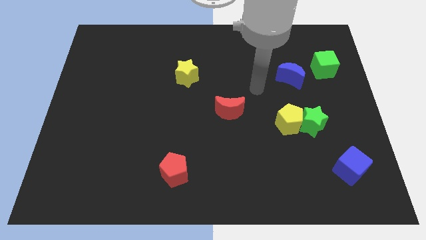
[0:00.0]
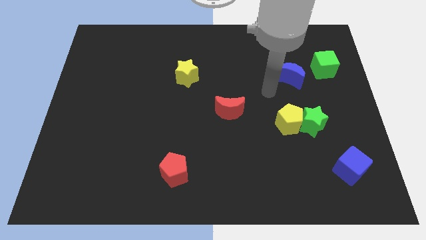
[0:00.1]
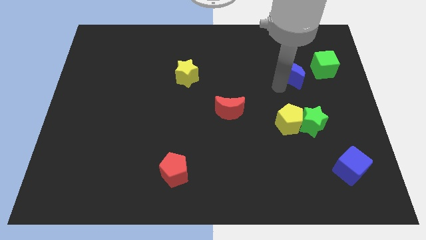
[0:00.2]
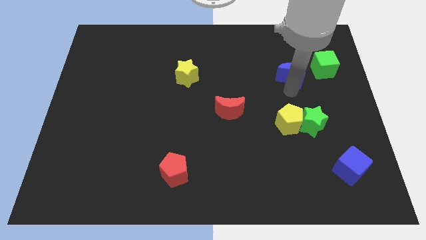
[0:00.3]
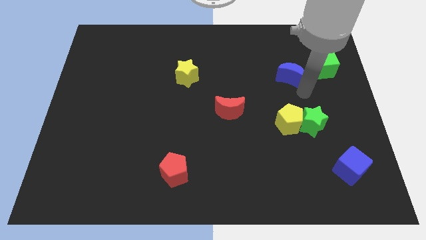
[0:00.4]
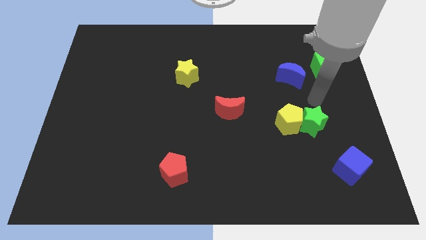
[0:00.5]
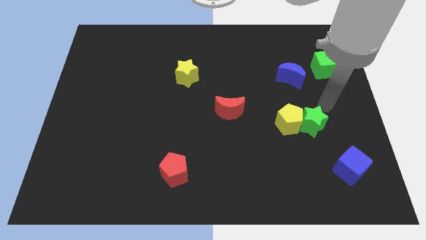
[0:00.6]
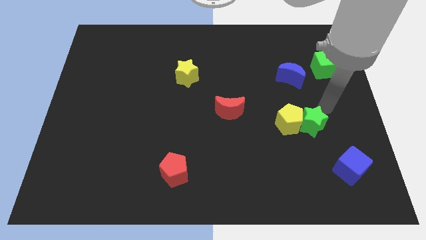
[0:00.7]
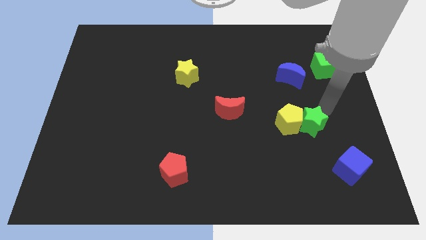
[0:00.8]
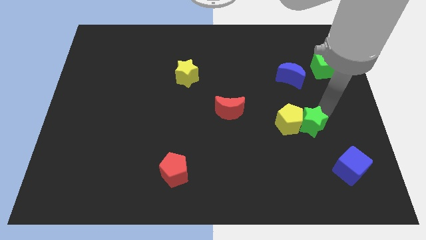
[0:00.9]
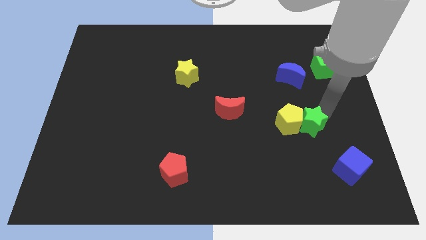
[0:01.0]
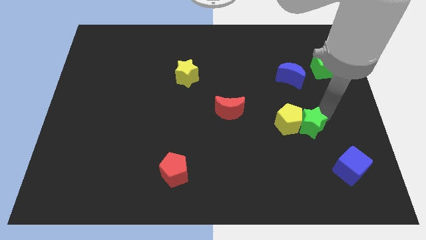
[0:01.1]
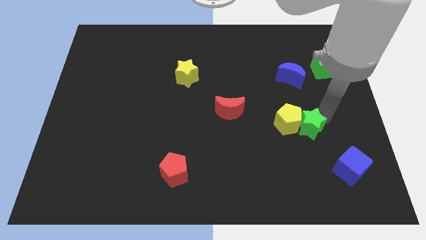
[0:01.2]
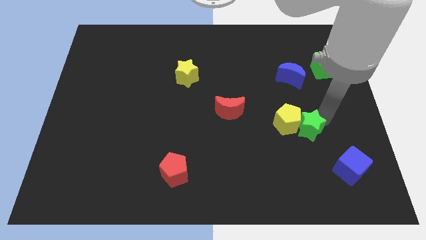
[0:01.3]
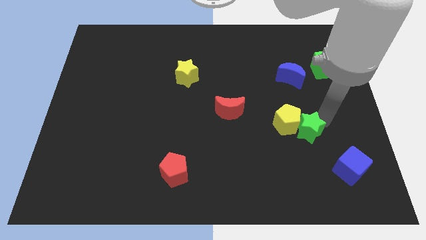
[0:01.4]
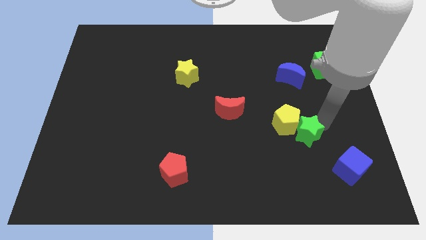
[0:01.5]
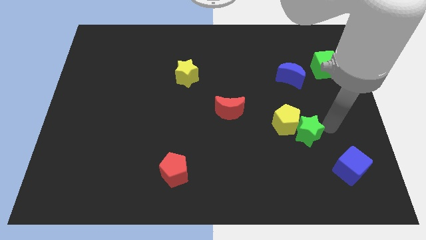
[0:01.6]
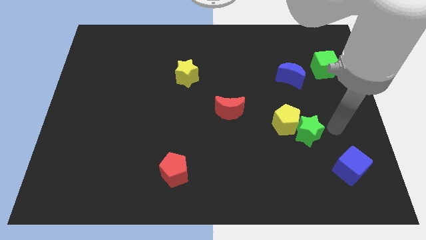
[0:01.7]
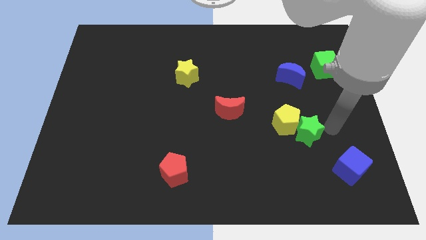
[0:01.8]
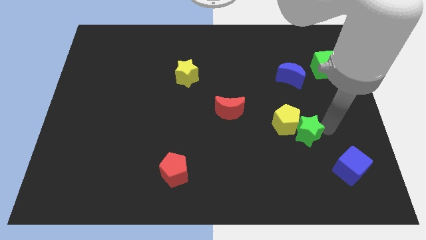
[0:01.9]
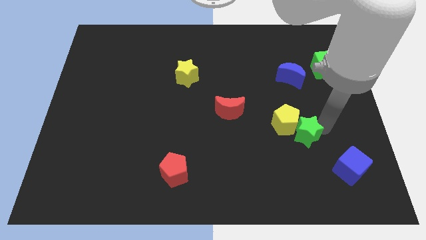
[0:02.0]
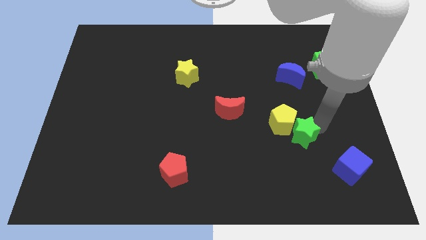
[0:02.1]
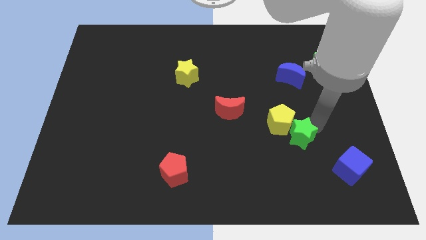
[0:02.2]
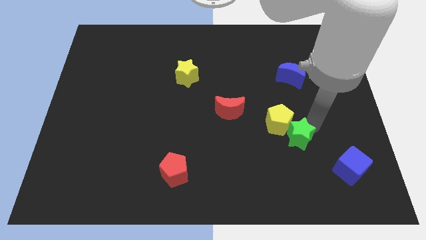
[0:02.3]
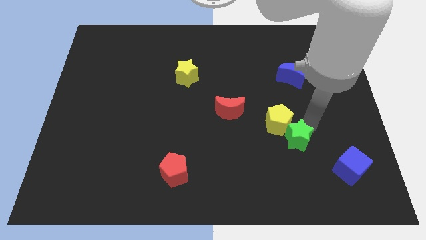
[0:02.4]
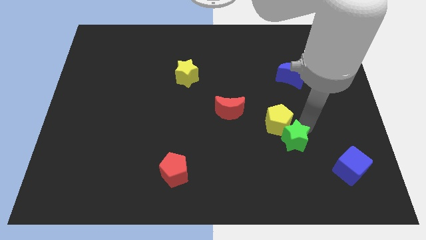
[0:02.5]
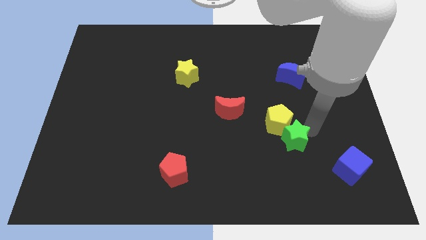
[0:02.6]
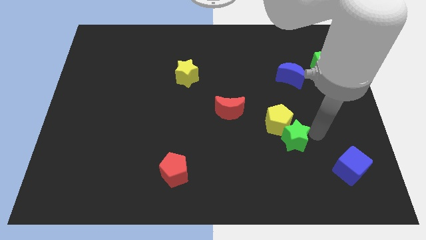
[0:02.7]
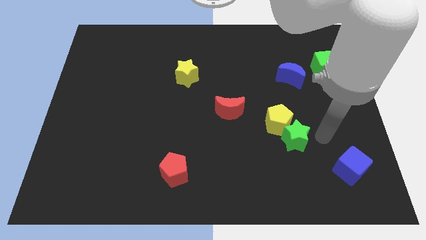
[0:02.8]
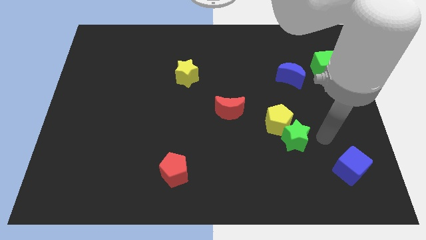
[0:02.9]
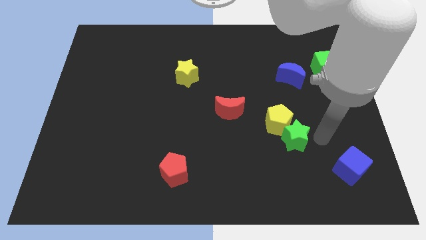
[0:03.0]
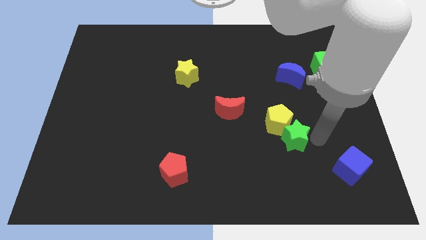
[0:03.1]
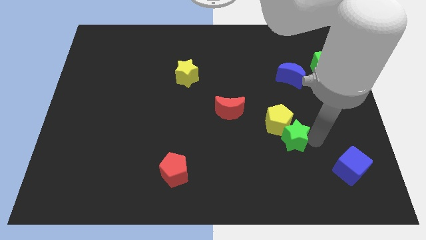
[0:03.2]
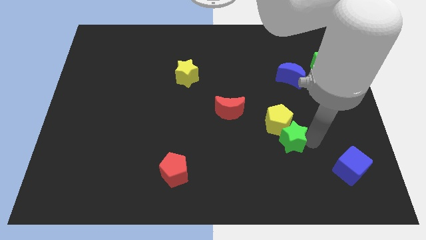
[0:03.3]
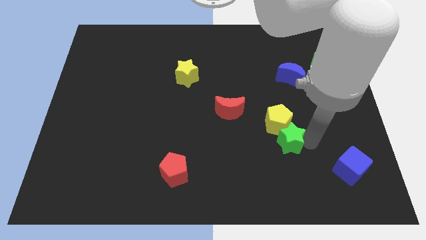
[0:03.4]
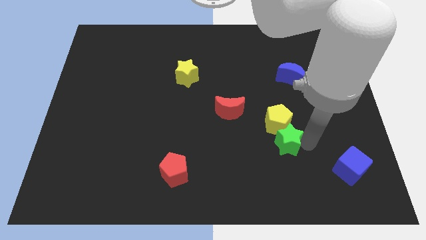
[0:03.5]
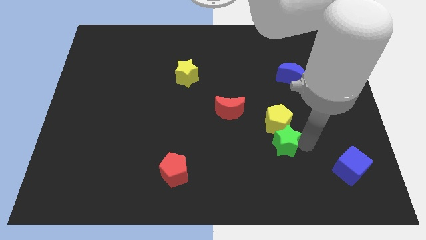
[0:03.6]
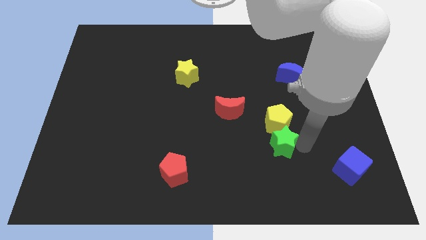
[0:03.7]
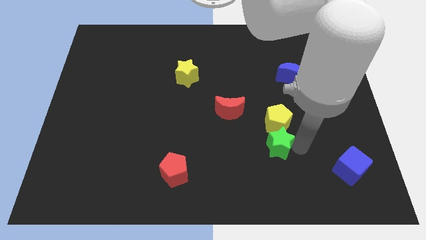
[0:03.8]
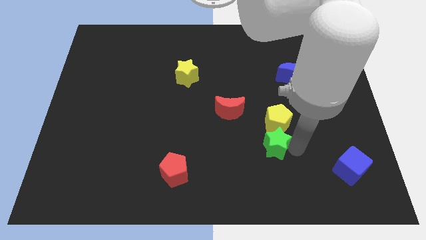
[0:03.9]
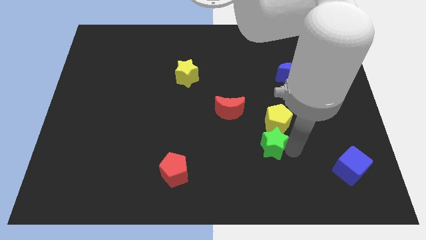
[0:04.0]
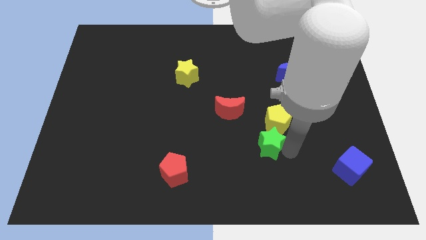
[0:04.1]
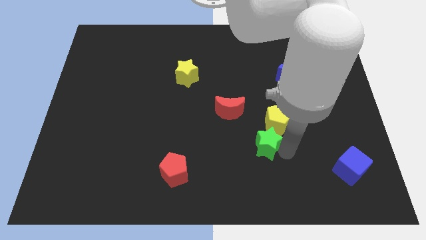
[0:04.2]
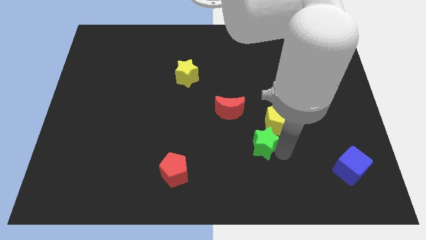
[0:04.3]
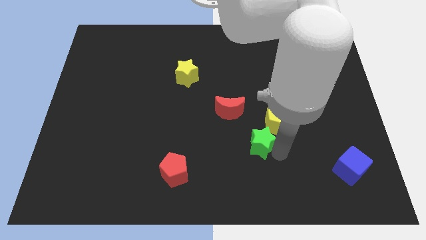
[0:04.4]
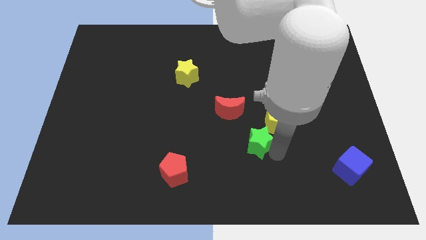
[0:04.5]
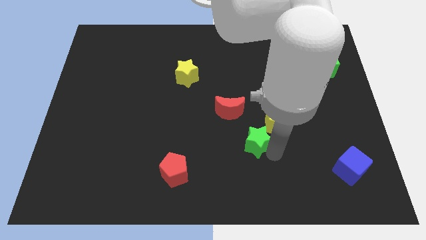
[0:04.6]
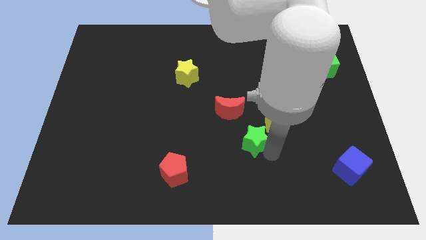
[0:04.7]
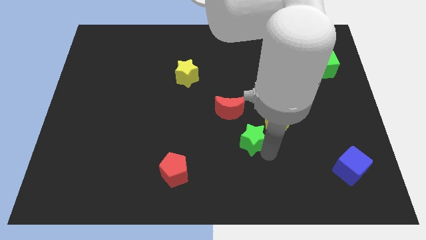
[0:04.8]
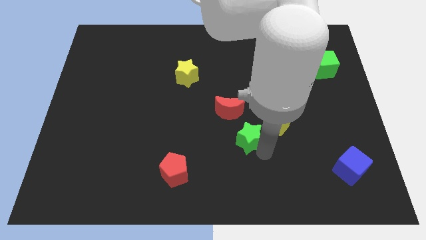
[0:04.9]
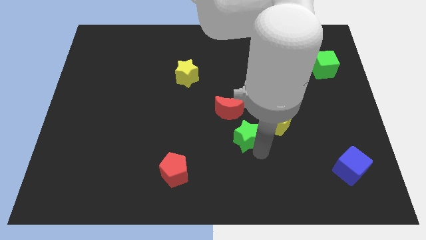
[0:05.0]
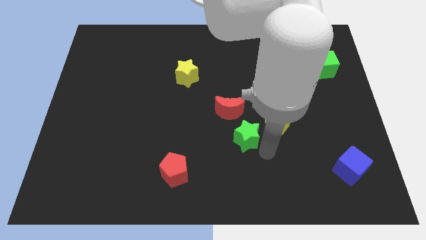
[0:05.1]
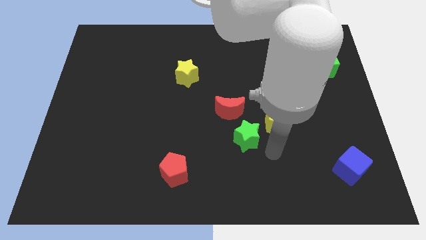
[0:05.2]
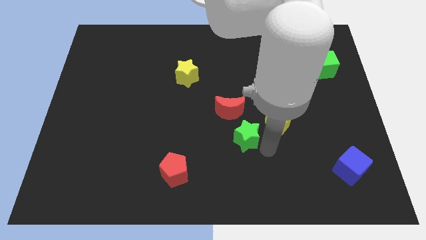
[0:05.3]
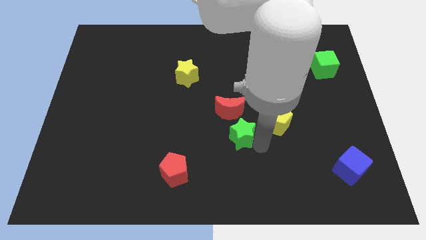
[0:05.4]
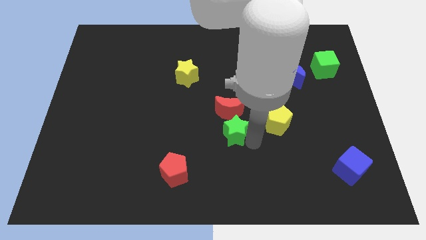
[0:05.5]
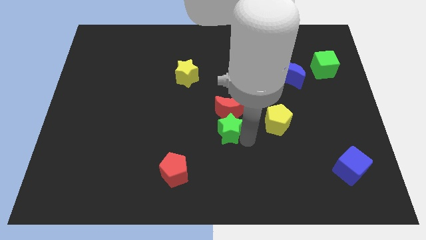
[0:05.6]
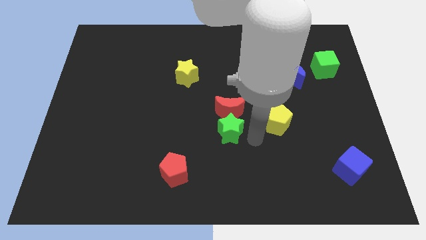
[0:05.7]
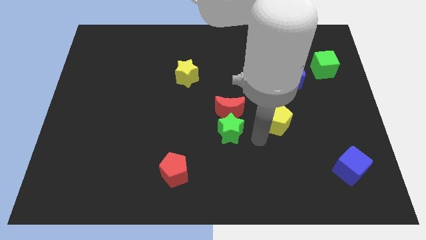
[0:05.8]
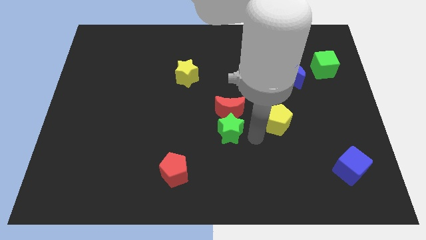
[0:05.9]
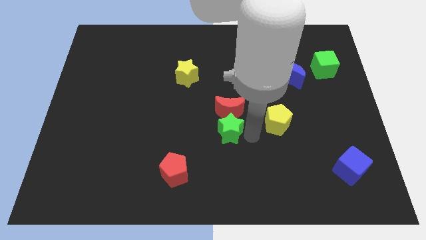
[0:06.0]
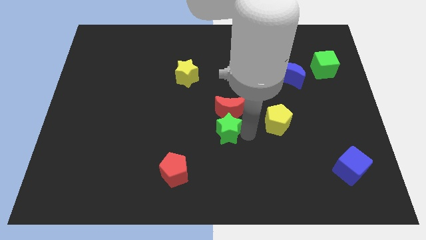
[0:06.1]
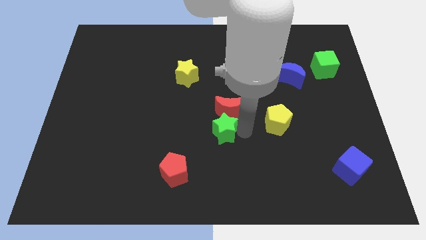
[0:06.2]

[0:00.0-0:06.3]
slide the green star left

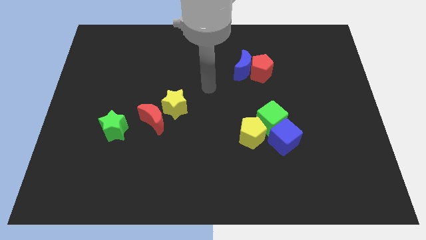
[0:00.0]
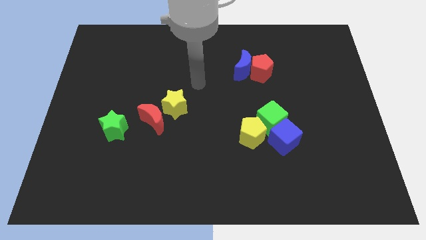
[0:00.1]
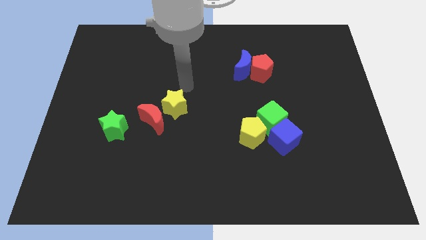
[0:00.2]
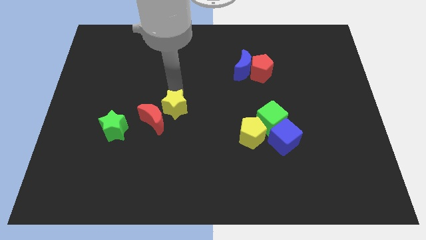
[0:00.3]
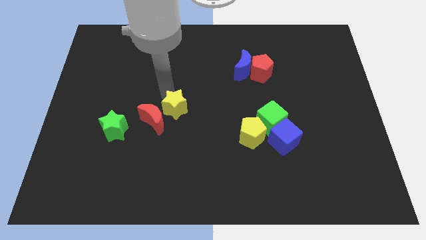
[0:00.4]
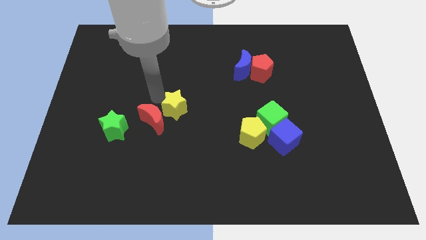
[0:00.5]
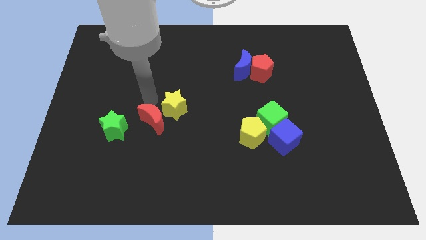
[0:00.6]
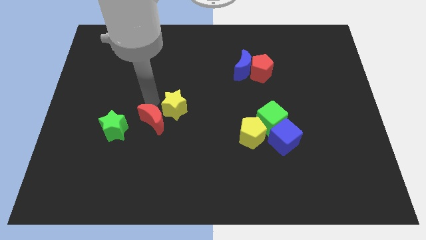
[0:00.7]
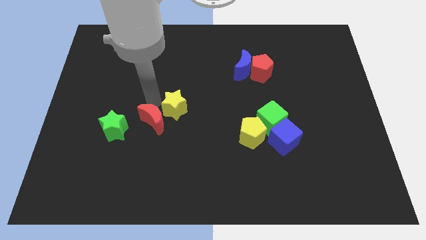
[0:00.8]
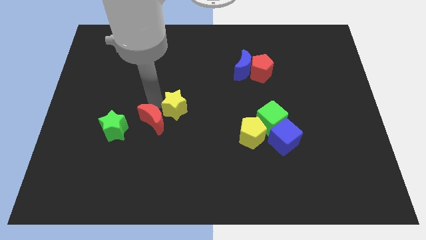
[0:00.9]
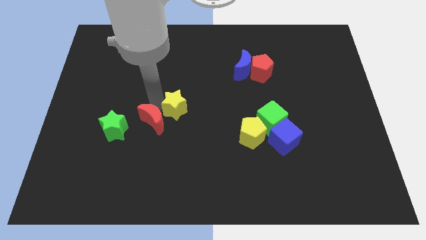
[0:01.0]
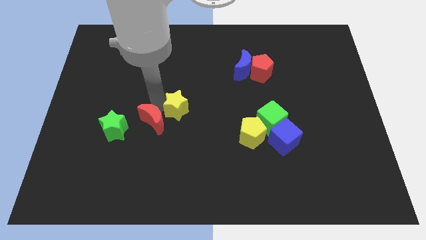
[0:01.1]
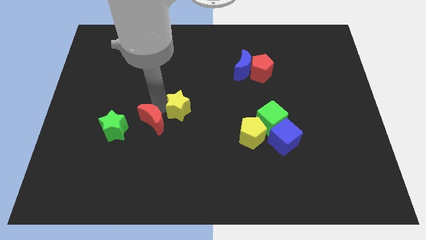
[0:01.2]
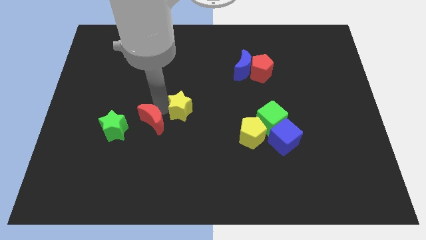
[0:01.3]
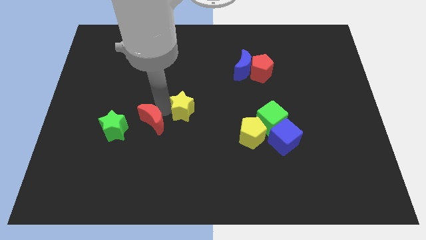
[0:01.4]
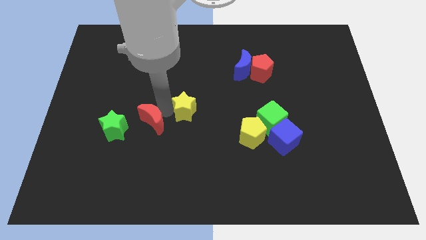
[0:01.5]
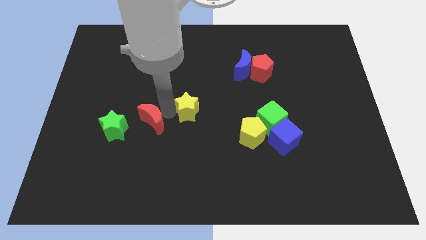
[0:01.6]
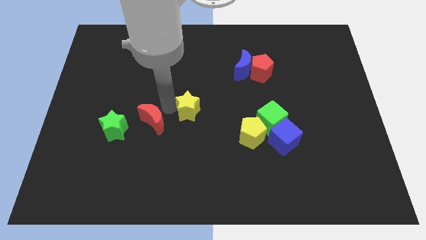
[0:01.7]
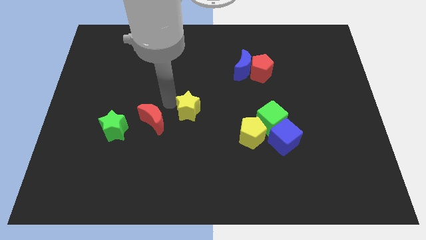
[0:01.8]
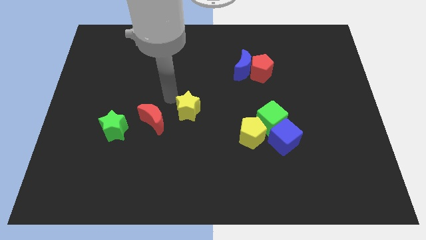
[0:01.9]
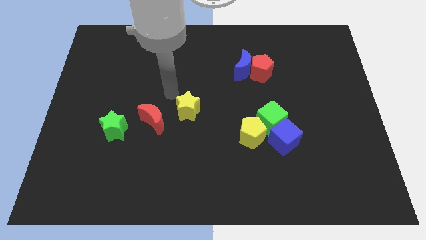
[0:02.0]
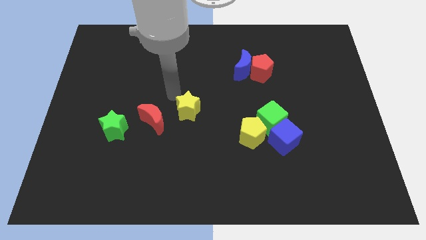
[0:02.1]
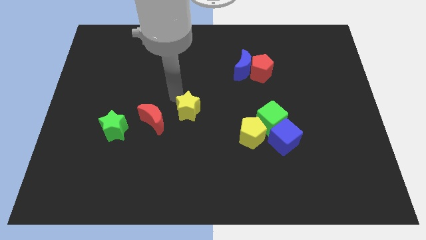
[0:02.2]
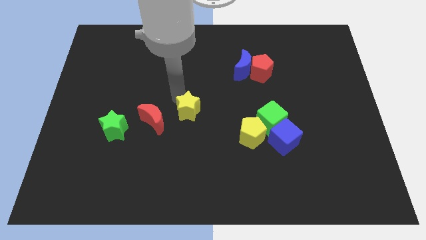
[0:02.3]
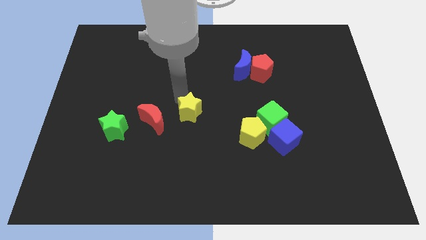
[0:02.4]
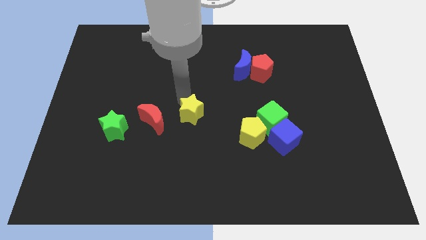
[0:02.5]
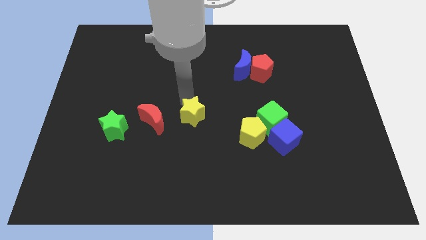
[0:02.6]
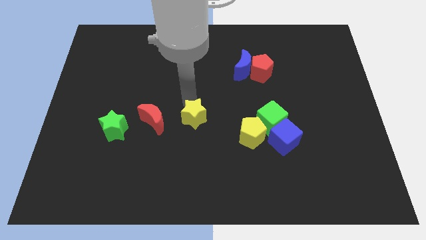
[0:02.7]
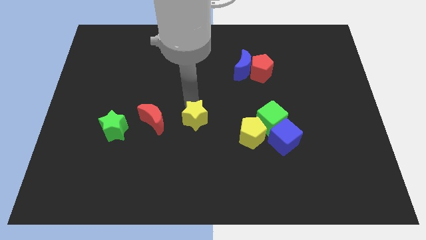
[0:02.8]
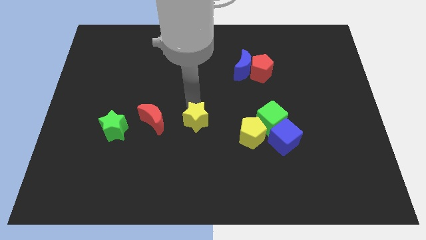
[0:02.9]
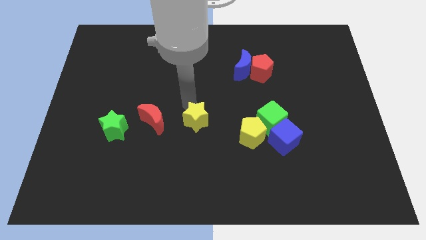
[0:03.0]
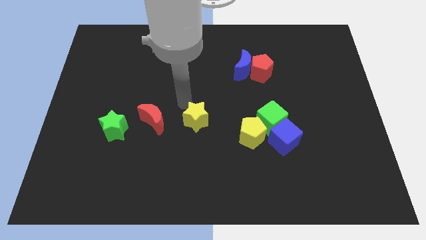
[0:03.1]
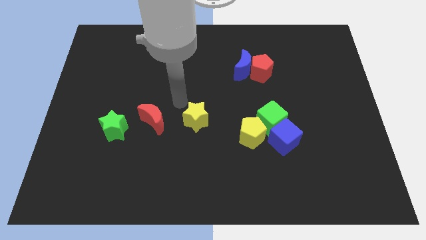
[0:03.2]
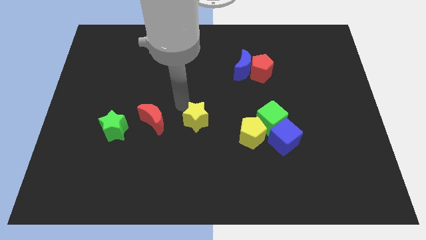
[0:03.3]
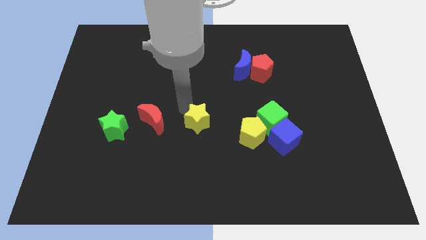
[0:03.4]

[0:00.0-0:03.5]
push the yellow star somewhat downwards and right diagonally
